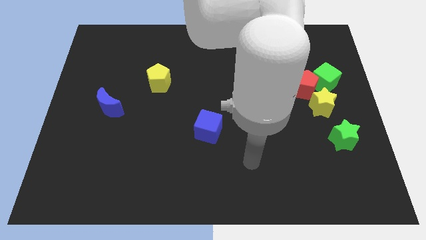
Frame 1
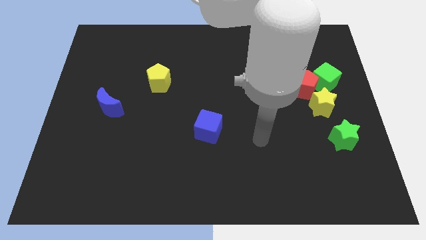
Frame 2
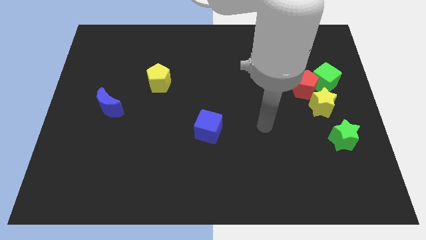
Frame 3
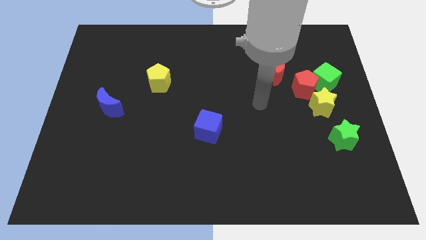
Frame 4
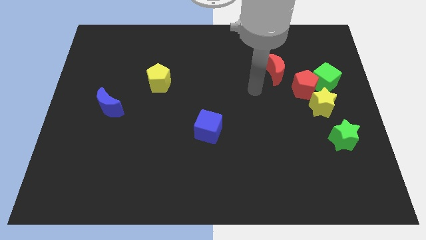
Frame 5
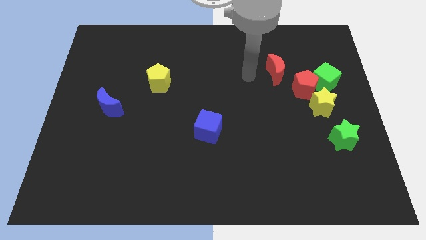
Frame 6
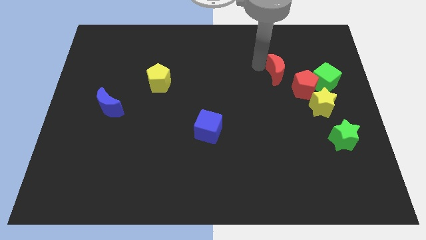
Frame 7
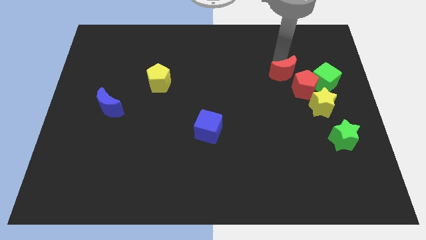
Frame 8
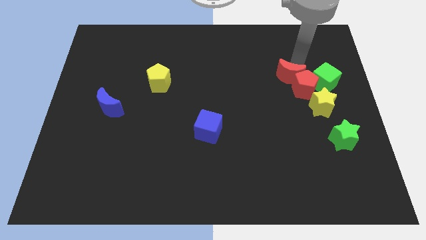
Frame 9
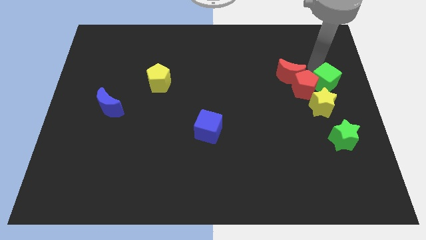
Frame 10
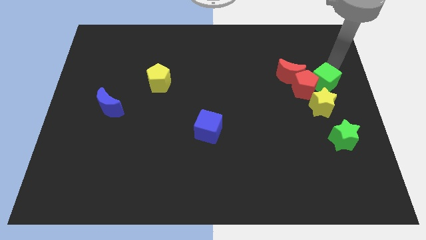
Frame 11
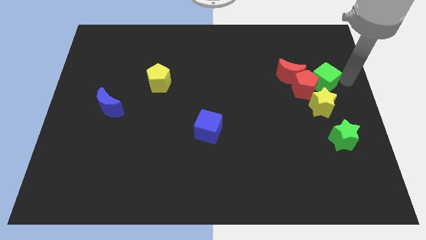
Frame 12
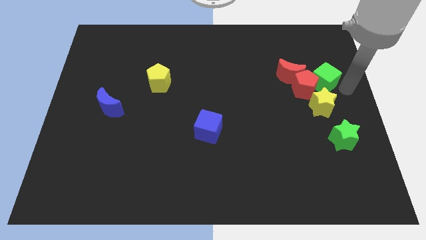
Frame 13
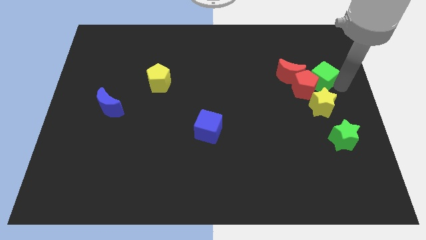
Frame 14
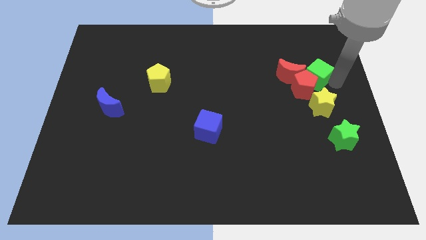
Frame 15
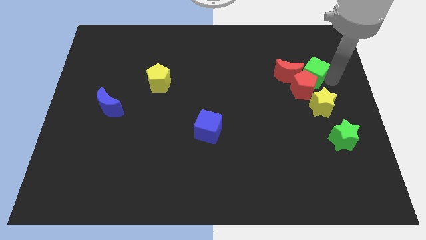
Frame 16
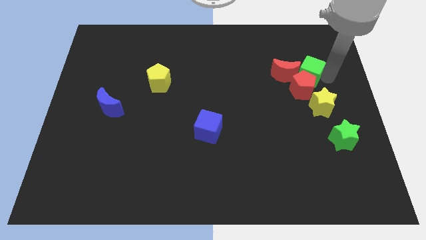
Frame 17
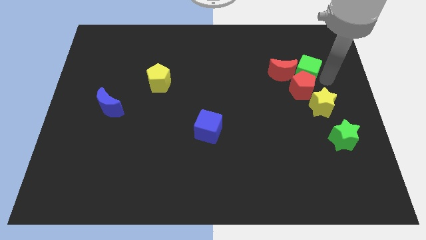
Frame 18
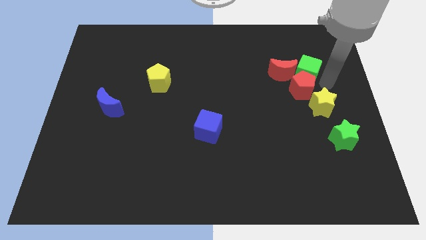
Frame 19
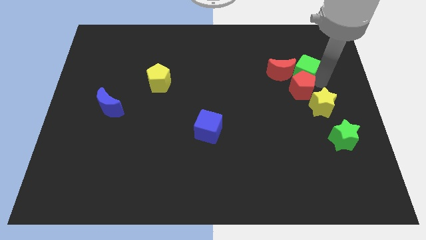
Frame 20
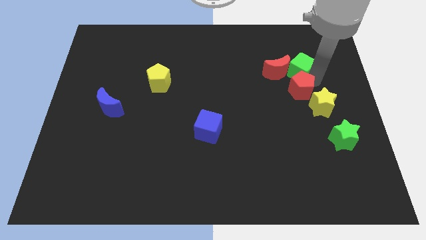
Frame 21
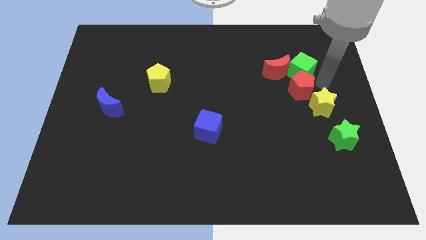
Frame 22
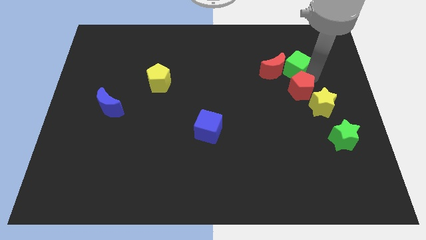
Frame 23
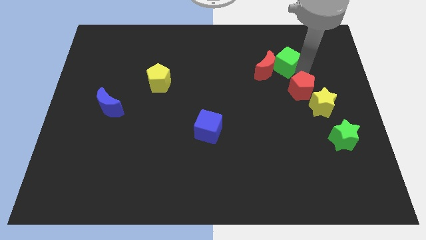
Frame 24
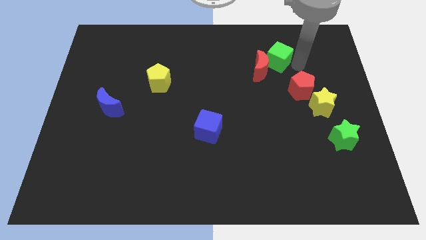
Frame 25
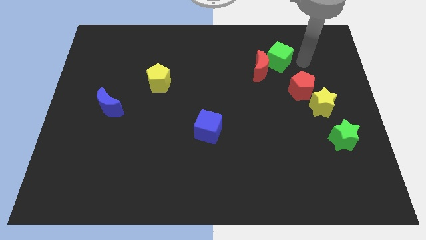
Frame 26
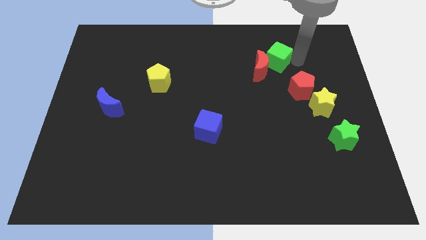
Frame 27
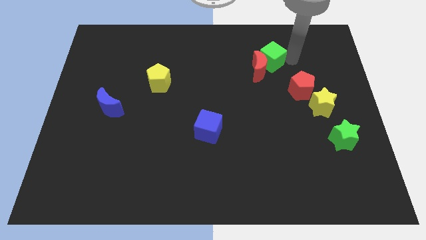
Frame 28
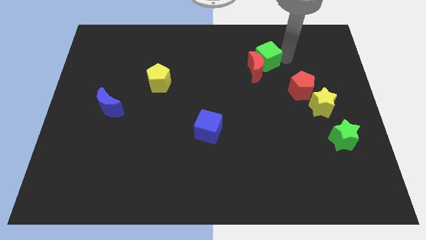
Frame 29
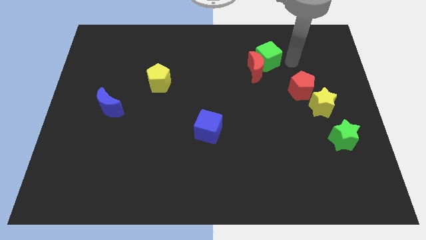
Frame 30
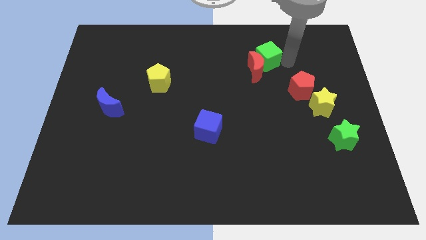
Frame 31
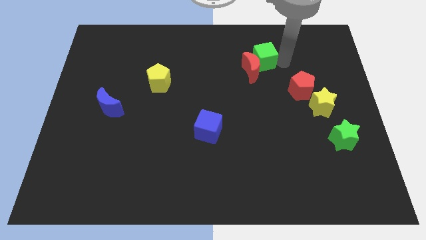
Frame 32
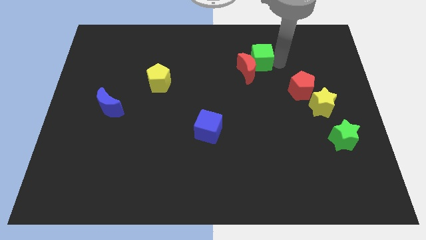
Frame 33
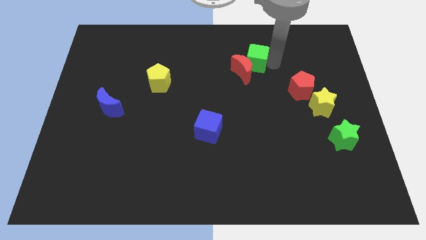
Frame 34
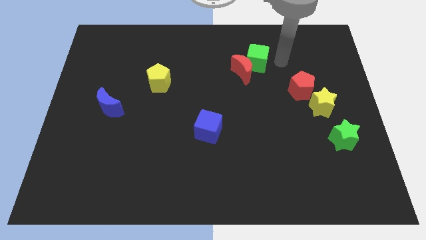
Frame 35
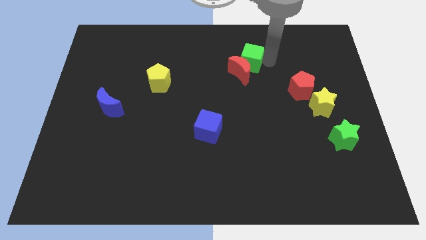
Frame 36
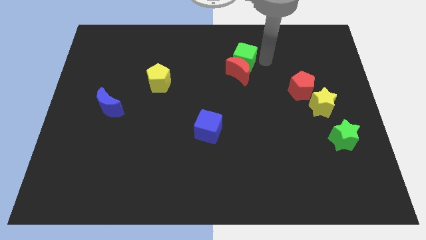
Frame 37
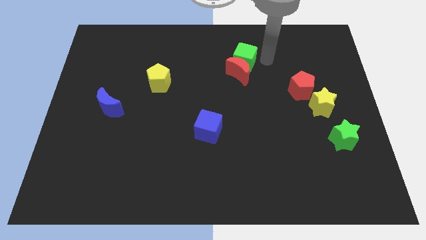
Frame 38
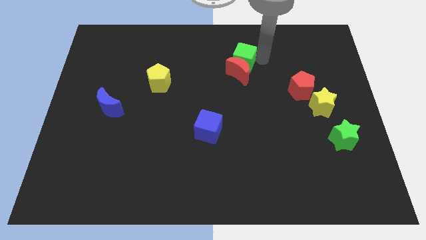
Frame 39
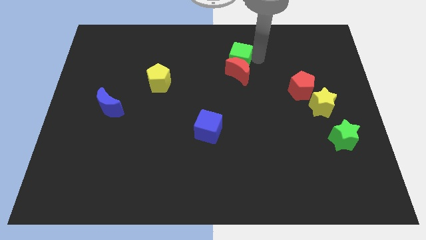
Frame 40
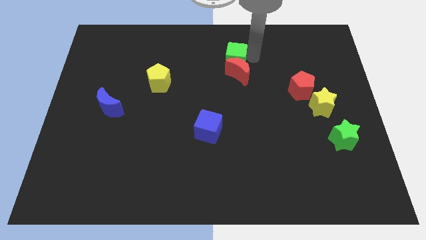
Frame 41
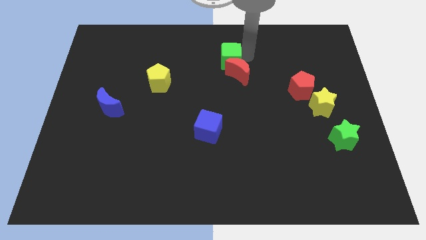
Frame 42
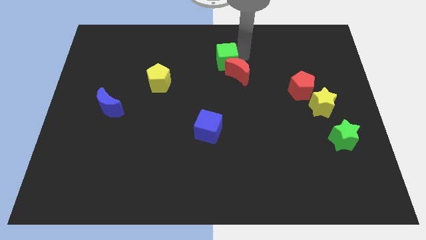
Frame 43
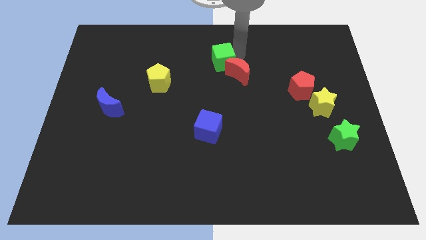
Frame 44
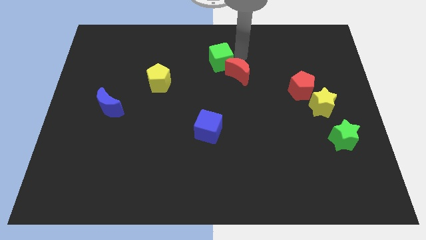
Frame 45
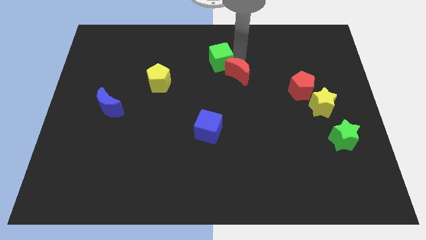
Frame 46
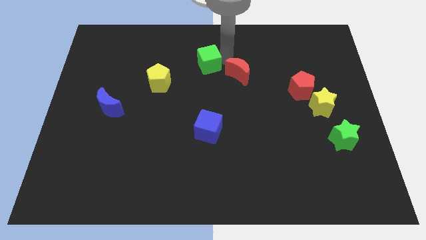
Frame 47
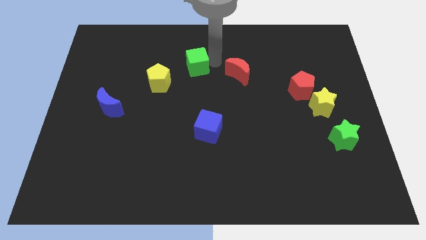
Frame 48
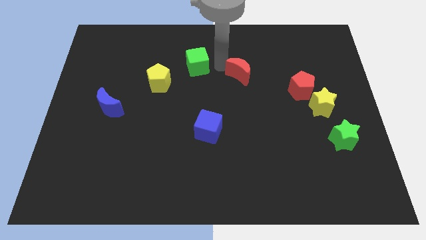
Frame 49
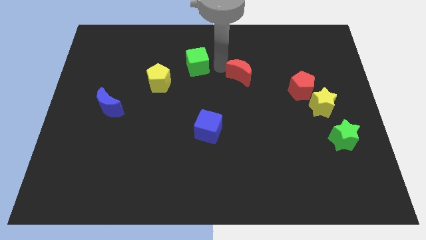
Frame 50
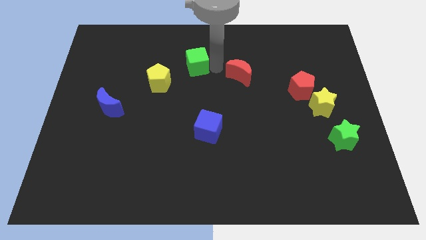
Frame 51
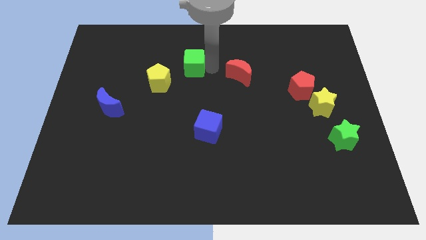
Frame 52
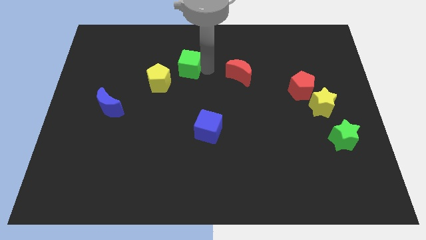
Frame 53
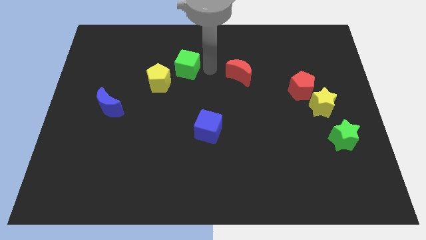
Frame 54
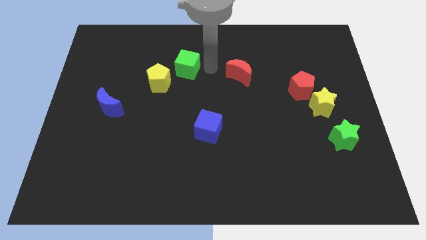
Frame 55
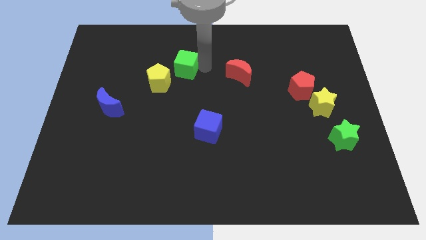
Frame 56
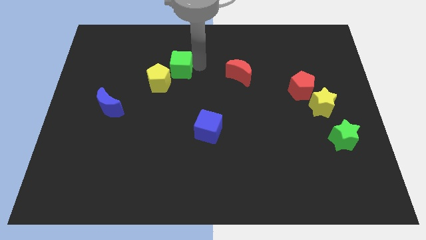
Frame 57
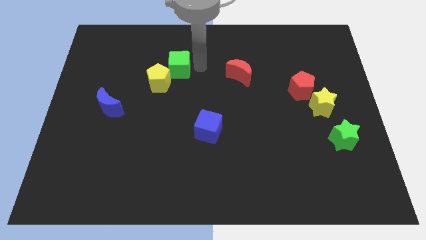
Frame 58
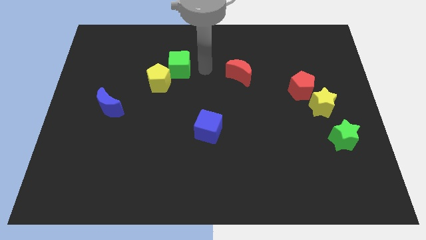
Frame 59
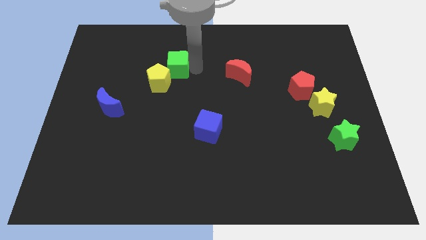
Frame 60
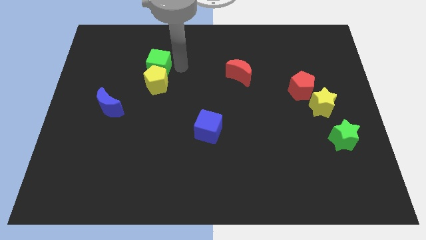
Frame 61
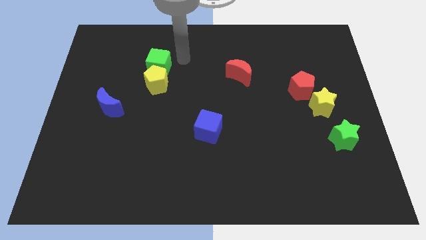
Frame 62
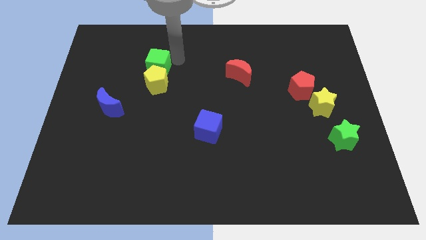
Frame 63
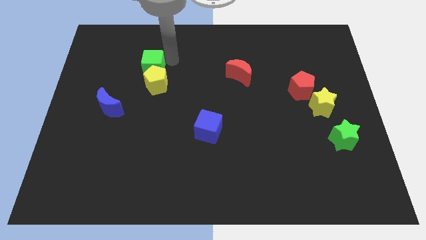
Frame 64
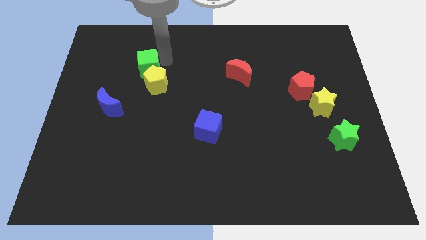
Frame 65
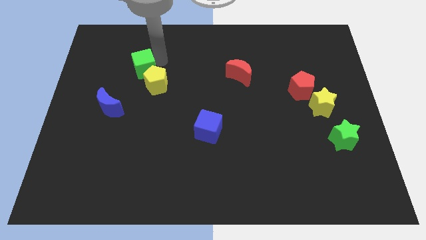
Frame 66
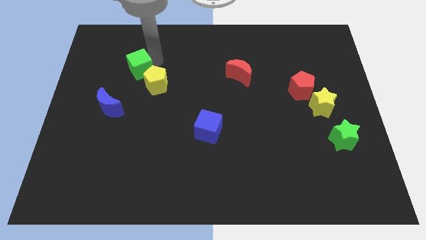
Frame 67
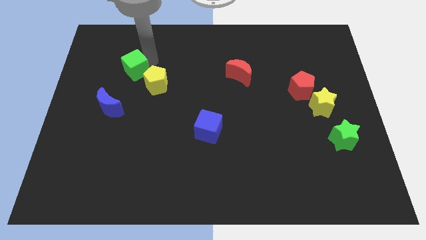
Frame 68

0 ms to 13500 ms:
move the green cube to the top of the blue moon

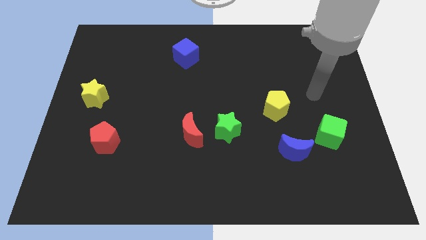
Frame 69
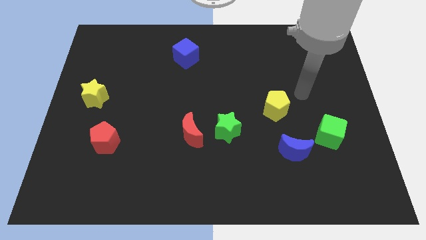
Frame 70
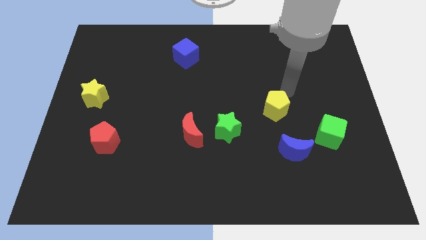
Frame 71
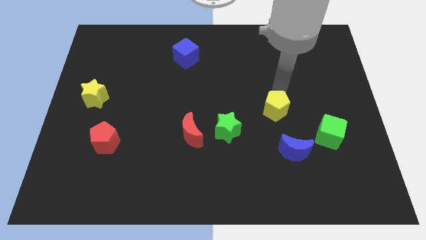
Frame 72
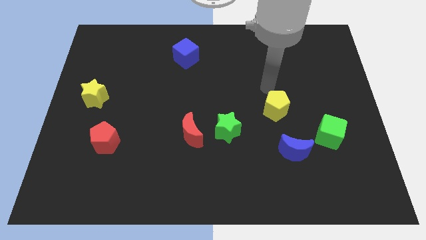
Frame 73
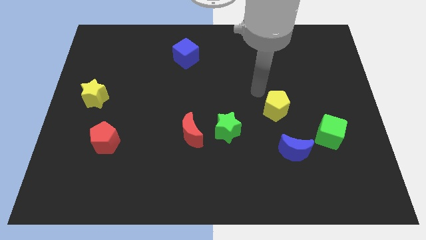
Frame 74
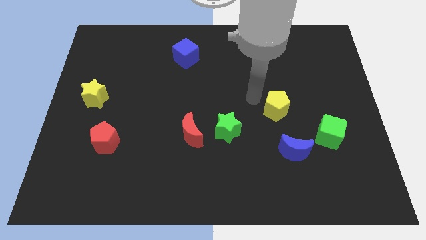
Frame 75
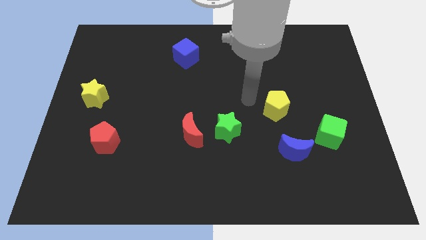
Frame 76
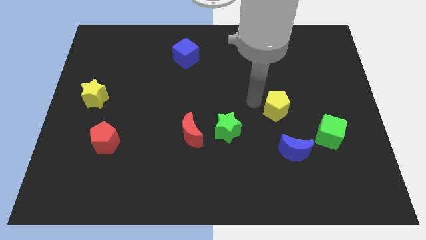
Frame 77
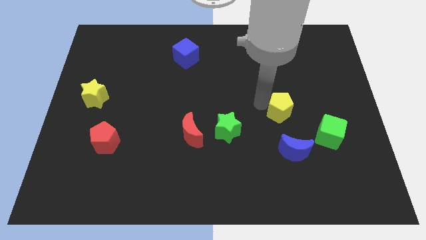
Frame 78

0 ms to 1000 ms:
slide the yellow pentagon to the top left side of the green cube
